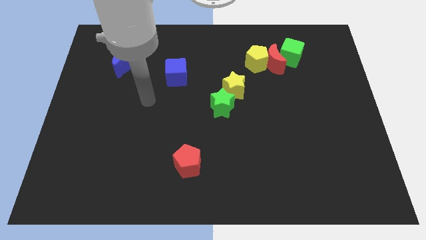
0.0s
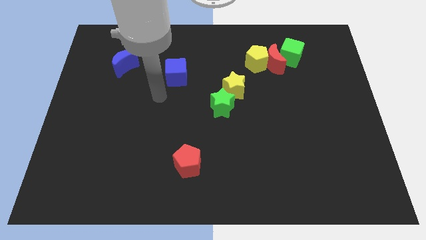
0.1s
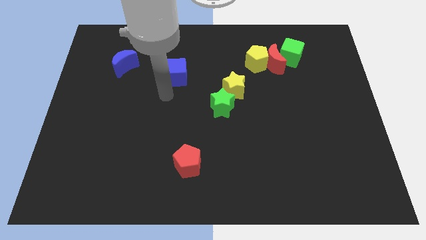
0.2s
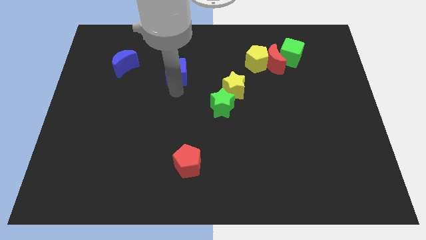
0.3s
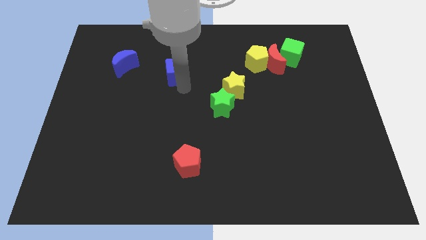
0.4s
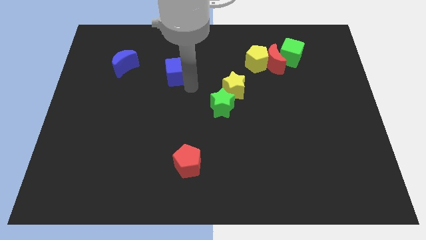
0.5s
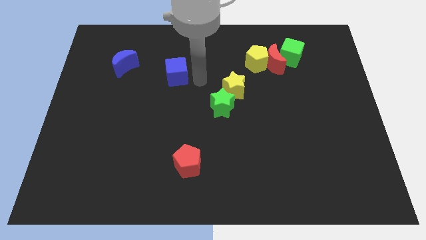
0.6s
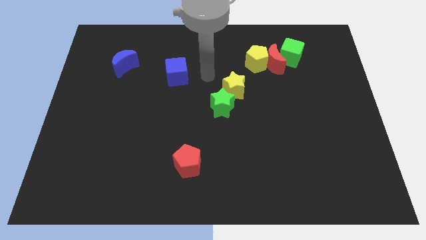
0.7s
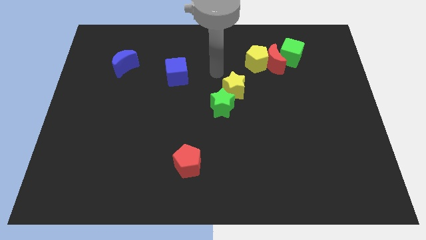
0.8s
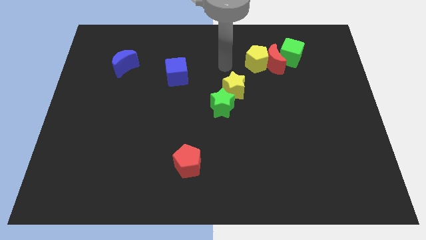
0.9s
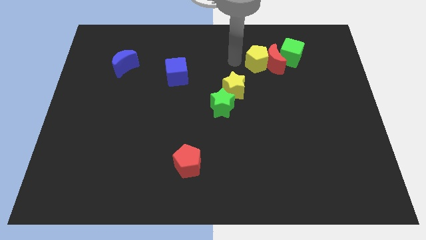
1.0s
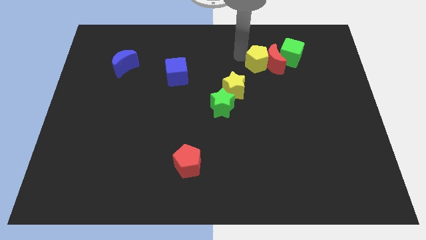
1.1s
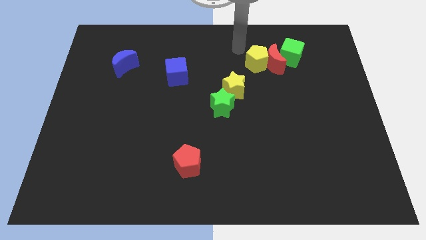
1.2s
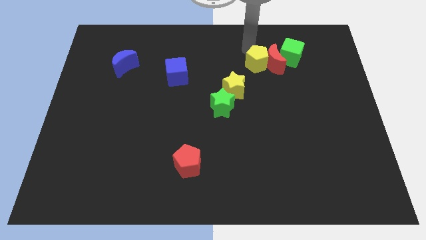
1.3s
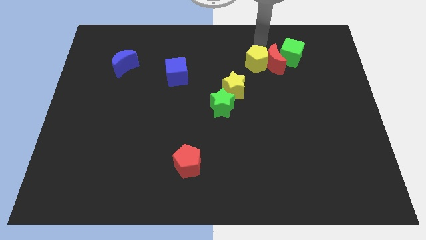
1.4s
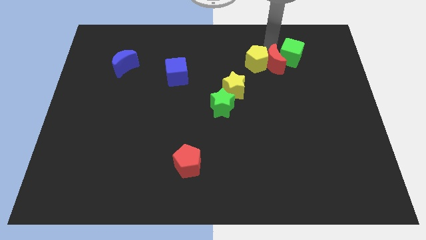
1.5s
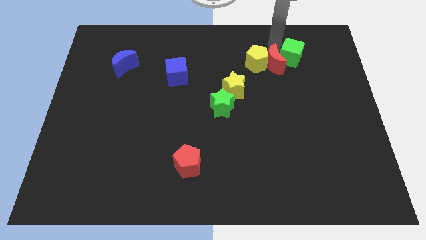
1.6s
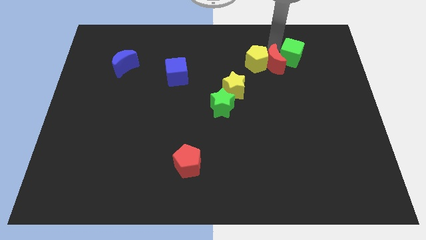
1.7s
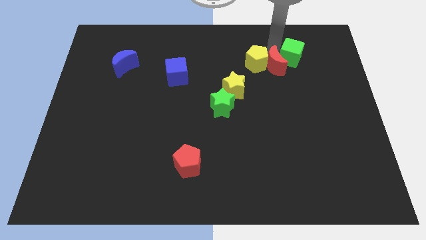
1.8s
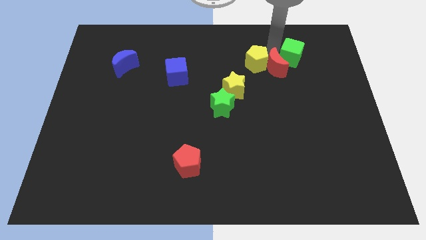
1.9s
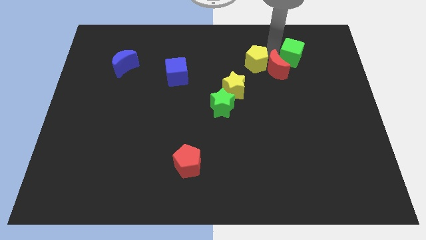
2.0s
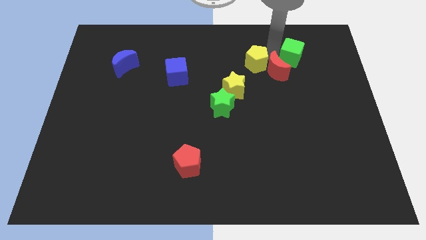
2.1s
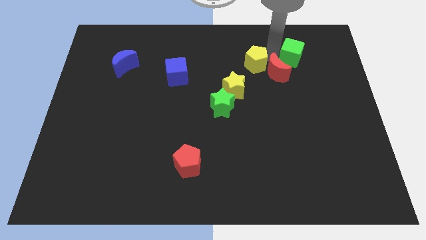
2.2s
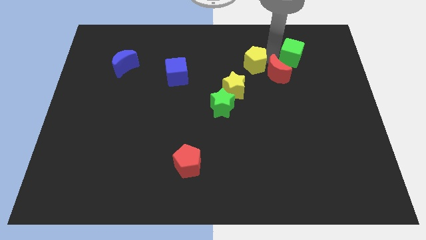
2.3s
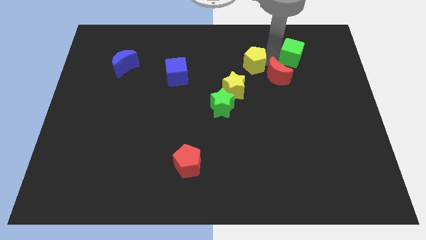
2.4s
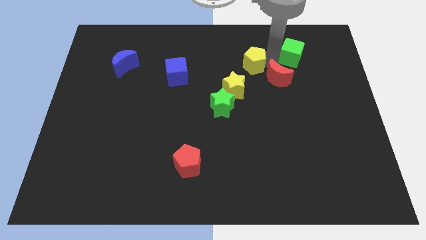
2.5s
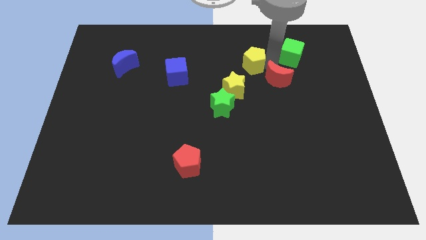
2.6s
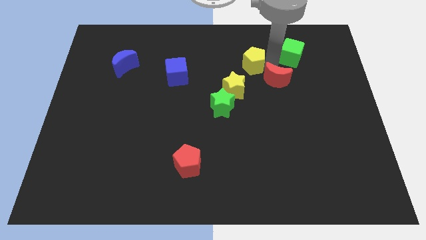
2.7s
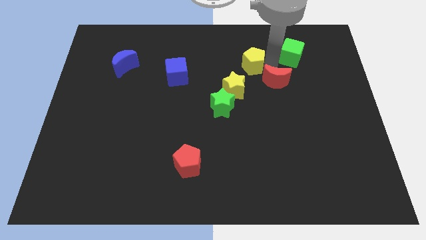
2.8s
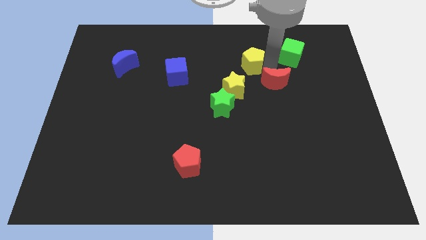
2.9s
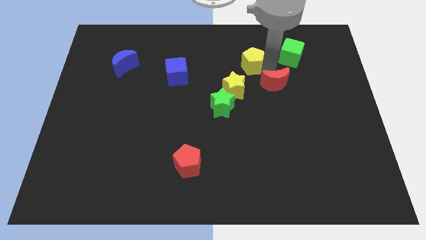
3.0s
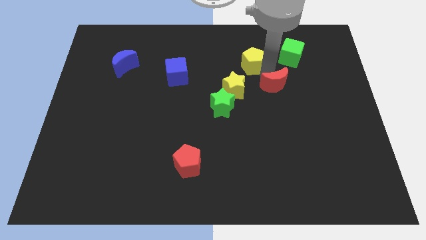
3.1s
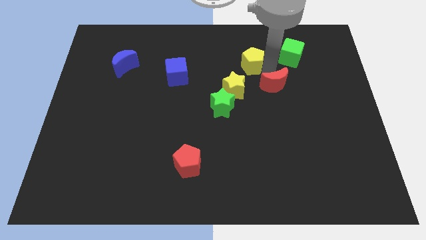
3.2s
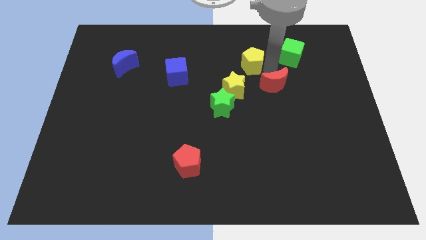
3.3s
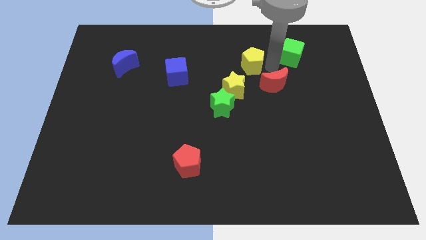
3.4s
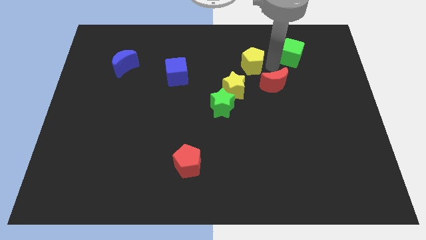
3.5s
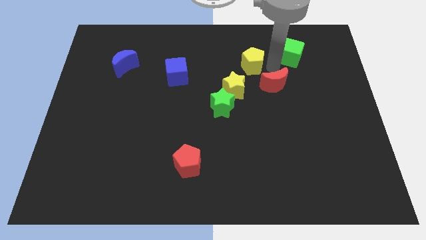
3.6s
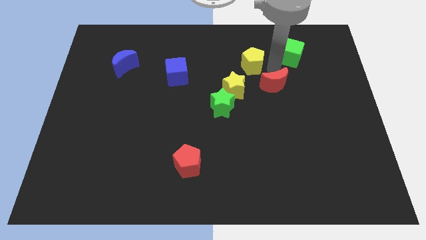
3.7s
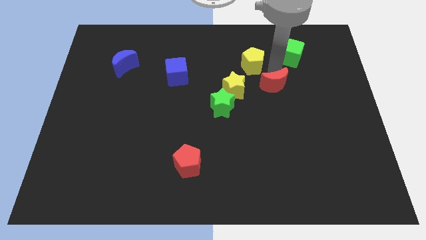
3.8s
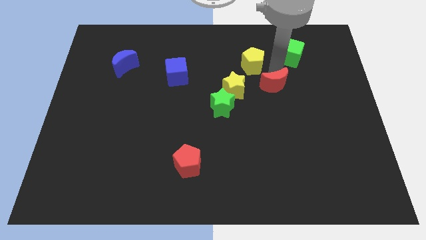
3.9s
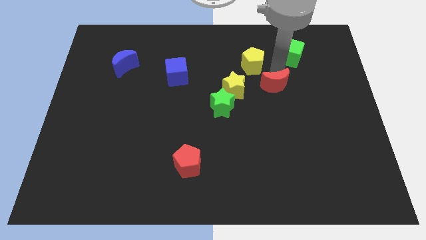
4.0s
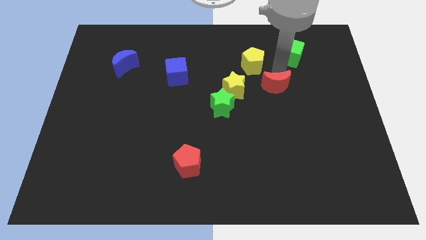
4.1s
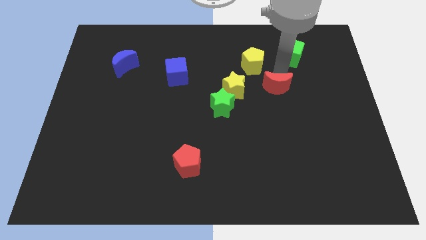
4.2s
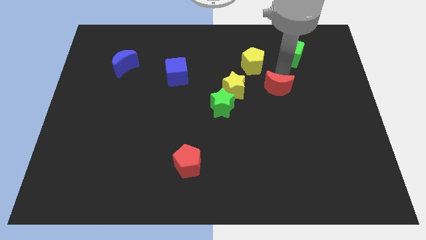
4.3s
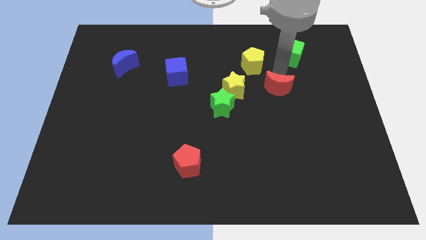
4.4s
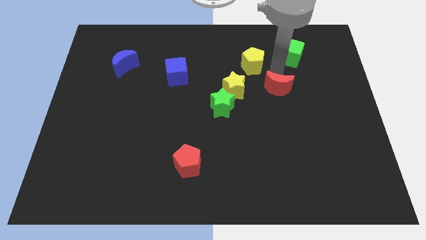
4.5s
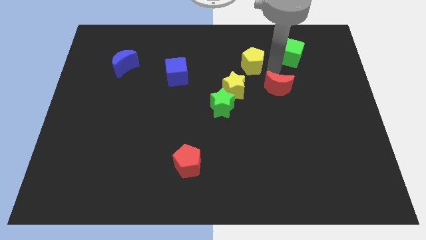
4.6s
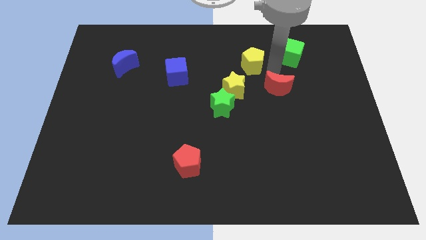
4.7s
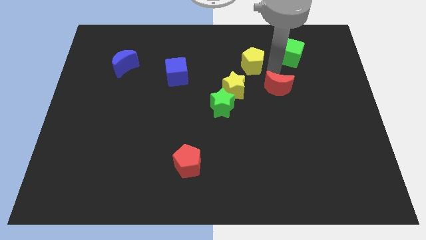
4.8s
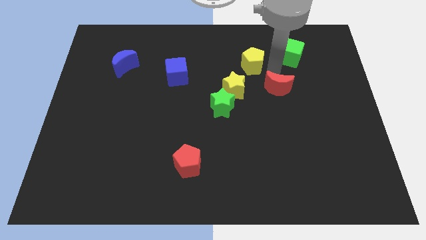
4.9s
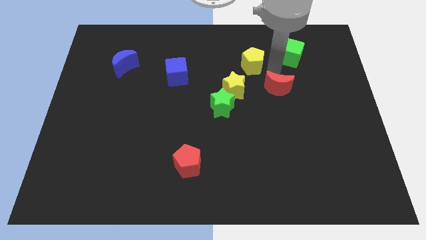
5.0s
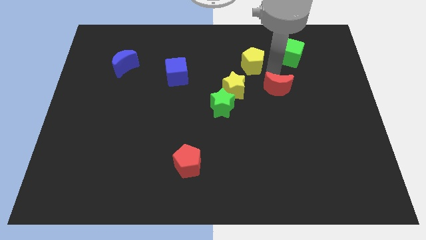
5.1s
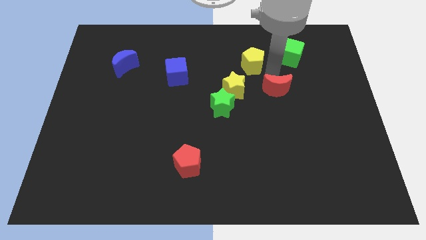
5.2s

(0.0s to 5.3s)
separate the red moon from the yellow pentagon and green cube

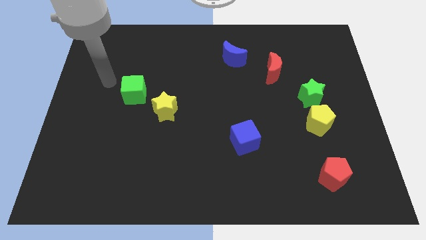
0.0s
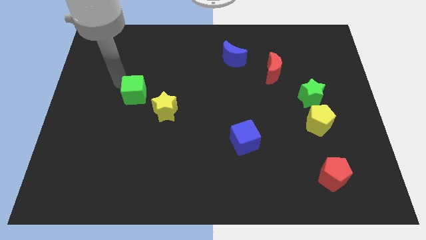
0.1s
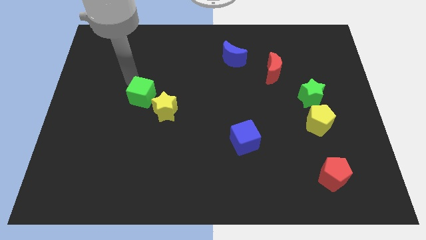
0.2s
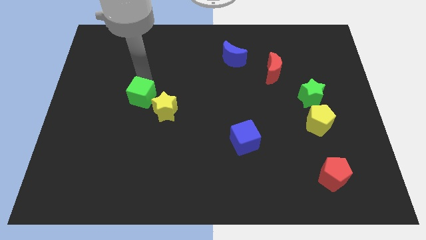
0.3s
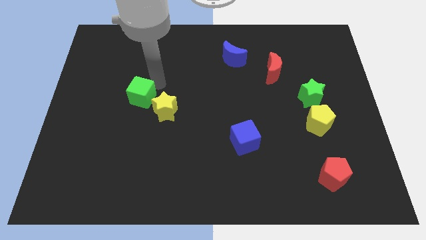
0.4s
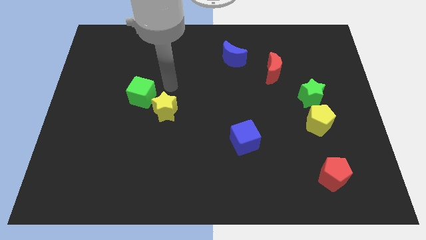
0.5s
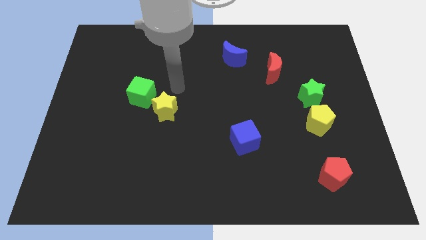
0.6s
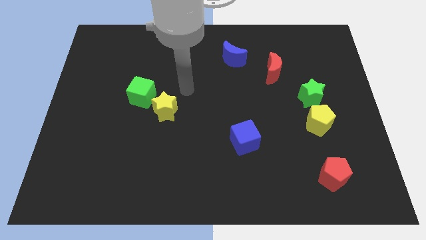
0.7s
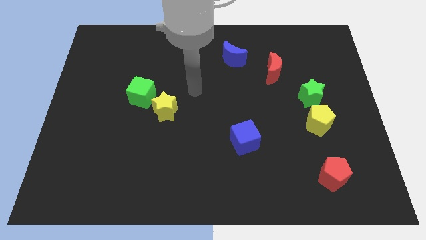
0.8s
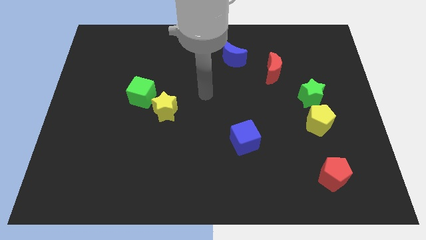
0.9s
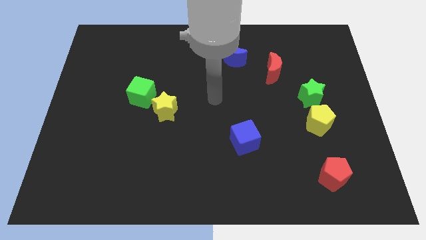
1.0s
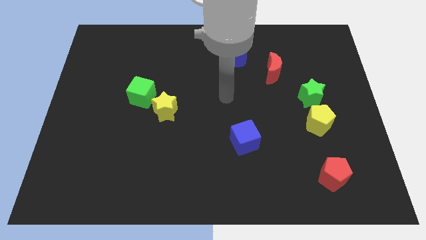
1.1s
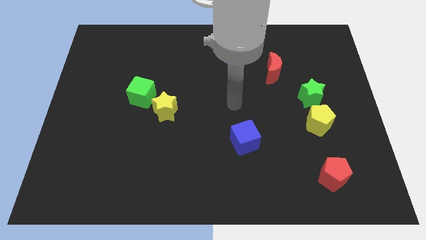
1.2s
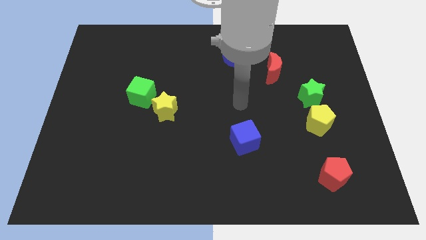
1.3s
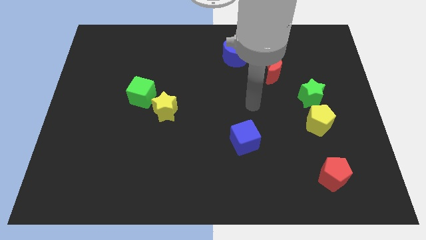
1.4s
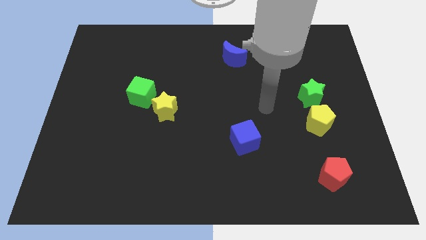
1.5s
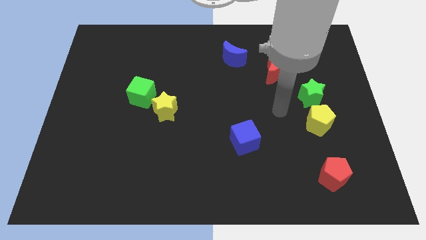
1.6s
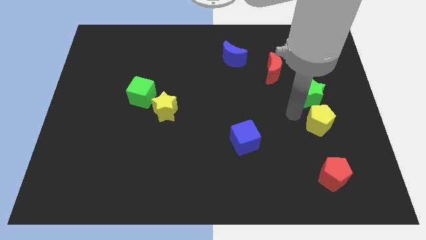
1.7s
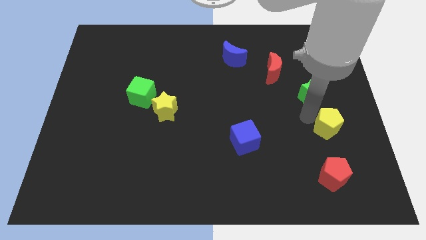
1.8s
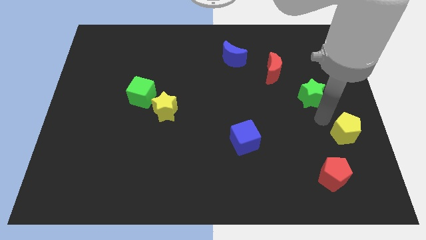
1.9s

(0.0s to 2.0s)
move the green star away from the yellow pentagon

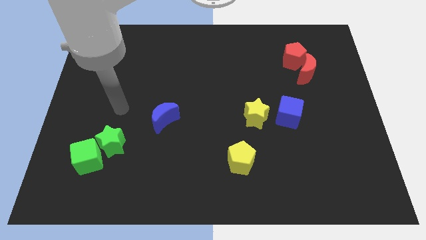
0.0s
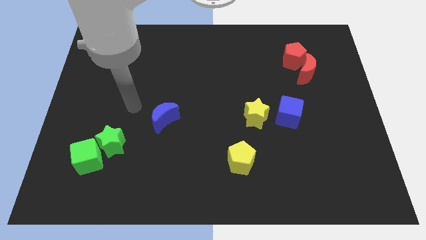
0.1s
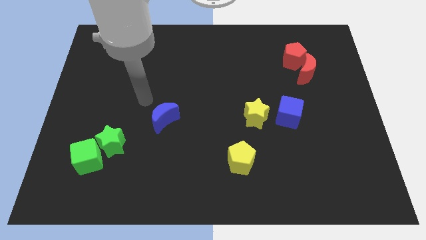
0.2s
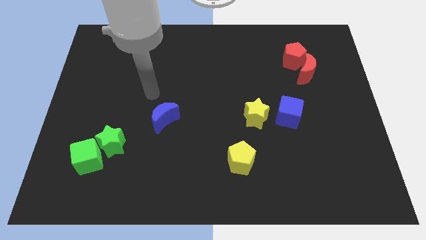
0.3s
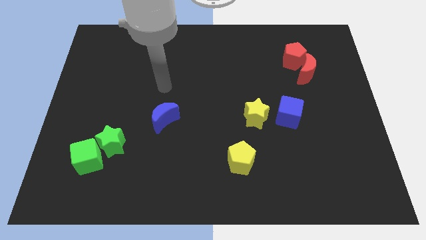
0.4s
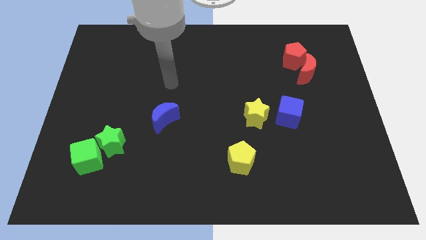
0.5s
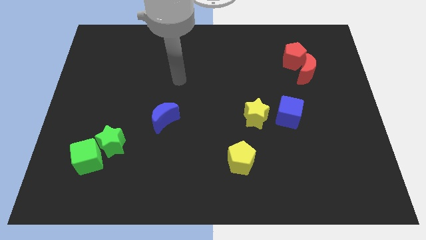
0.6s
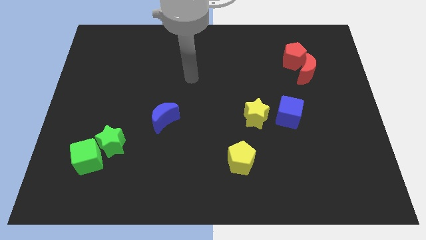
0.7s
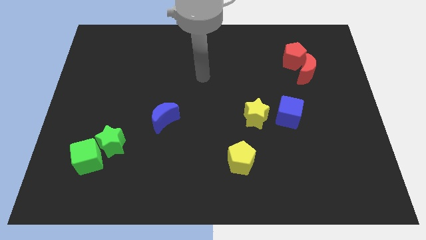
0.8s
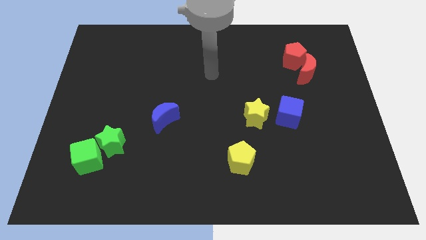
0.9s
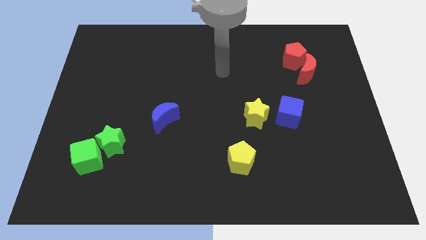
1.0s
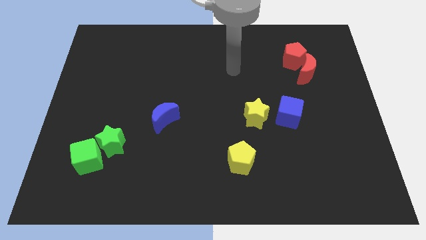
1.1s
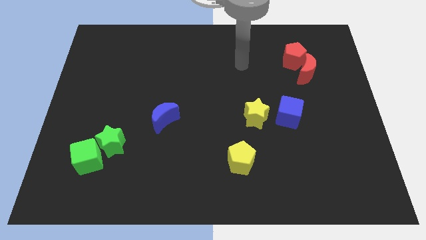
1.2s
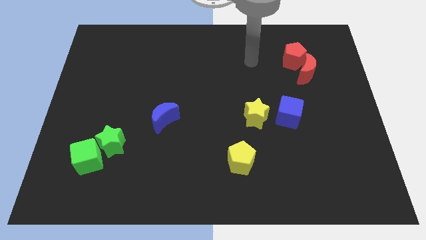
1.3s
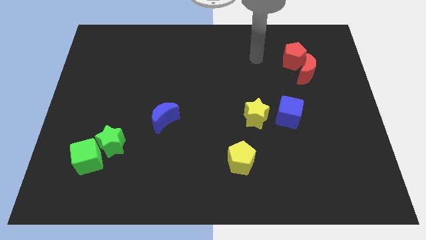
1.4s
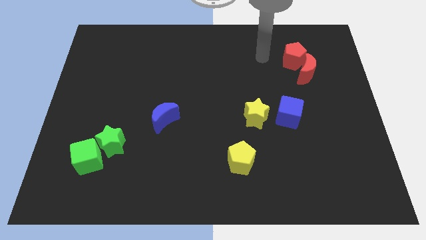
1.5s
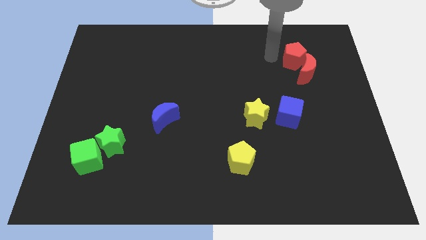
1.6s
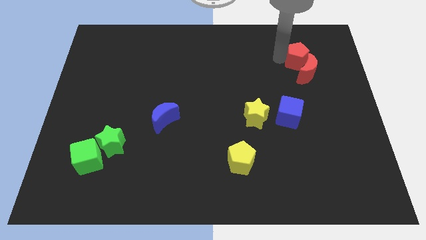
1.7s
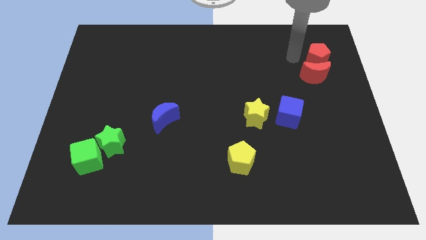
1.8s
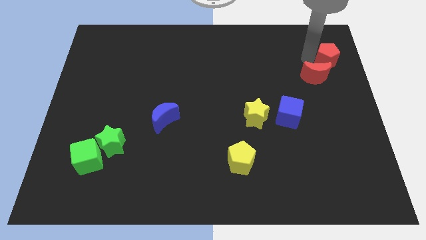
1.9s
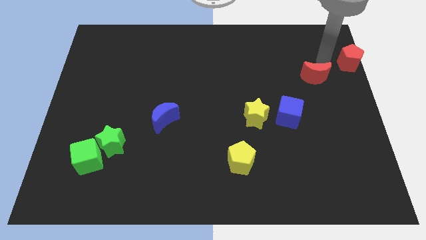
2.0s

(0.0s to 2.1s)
pull the red moon apart from the red pentagon
